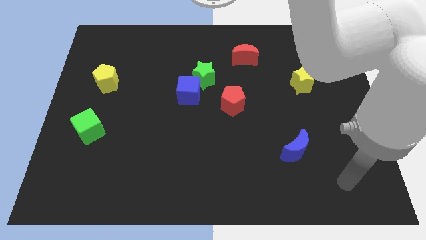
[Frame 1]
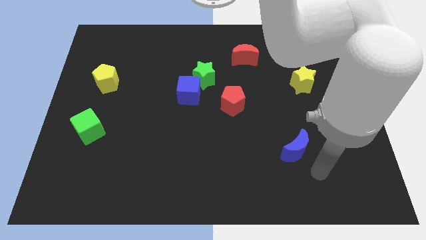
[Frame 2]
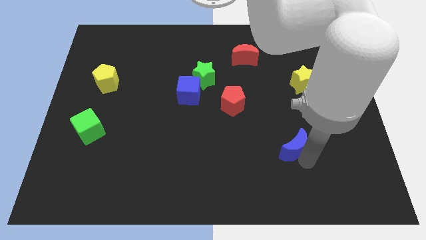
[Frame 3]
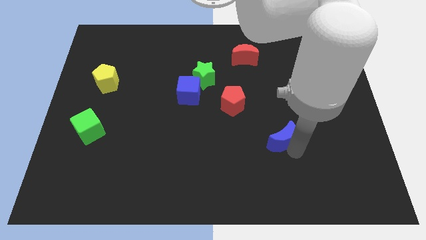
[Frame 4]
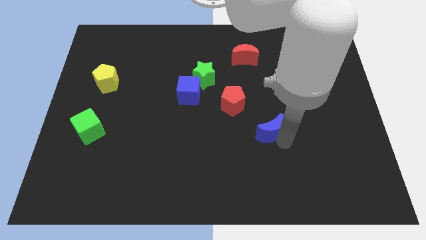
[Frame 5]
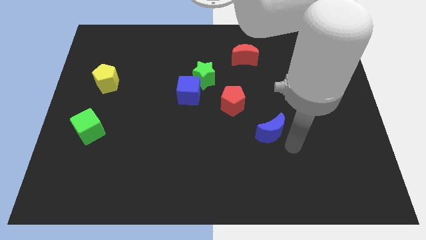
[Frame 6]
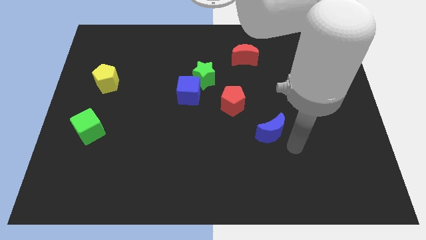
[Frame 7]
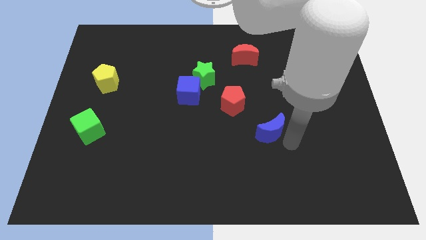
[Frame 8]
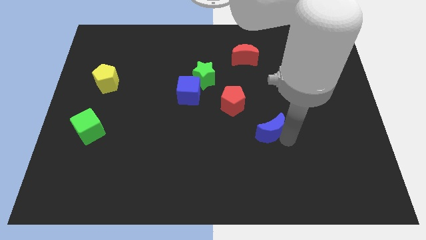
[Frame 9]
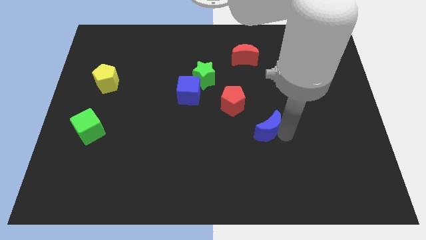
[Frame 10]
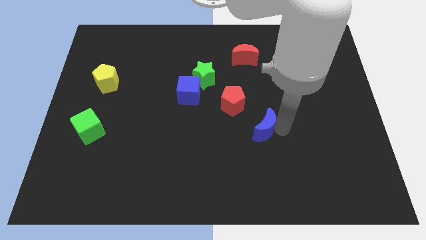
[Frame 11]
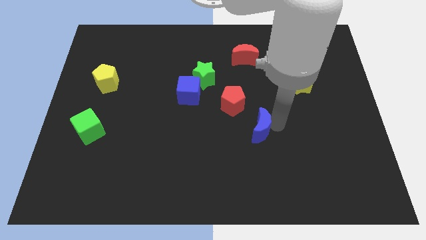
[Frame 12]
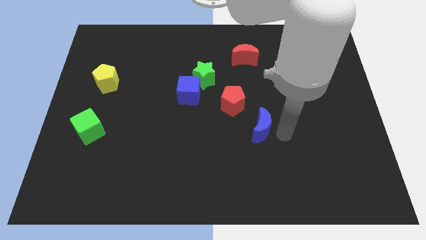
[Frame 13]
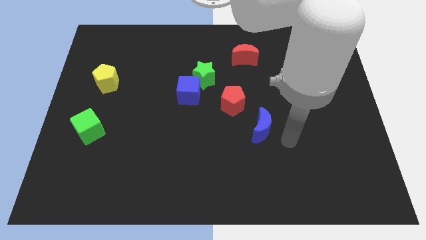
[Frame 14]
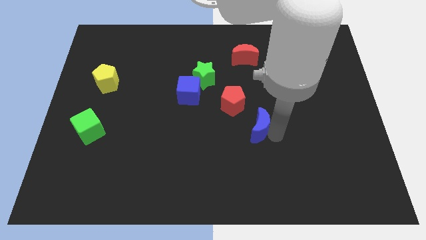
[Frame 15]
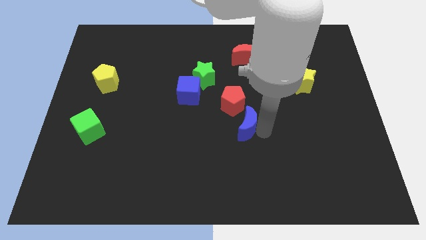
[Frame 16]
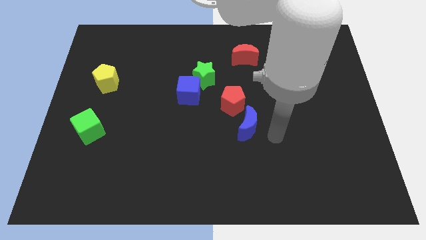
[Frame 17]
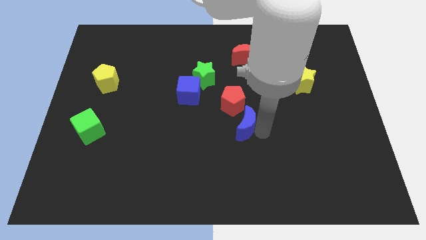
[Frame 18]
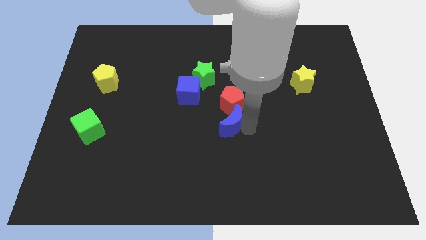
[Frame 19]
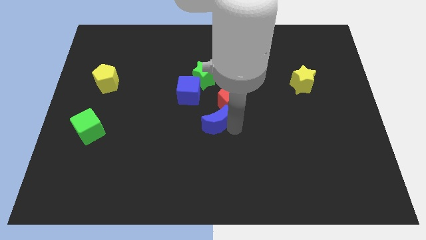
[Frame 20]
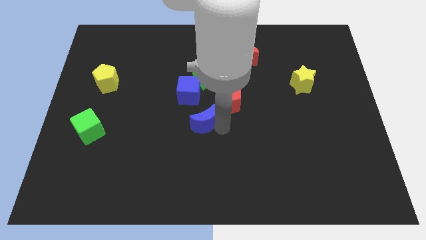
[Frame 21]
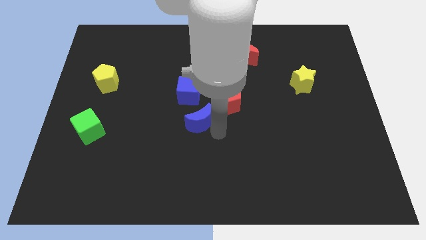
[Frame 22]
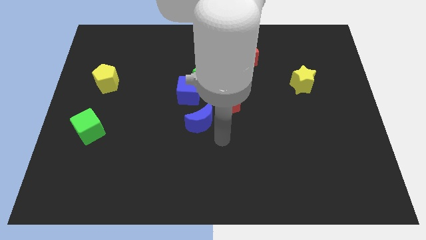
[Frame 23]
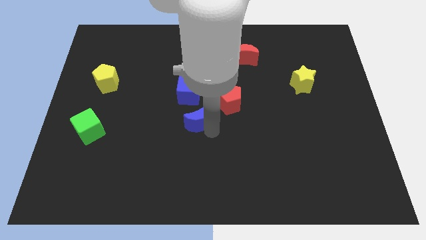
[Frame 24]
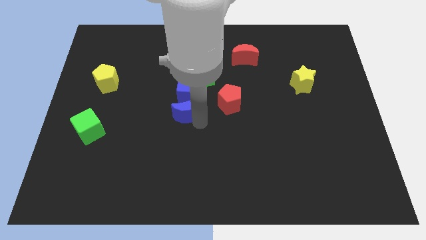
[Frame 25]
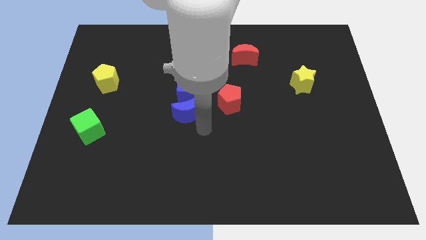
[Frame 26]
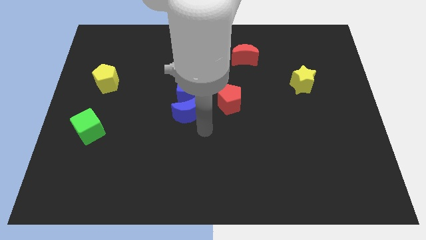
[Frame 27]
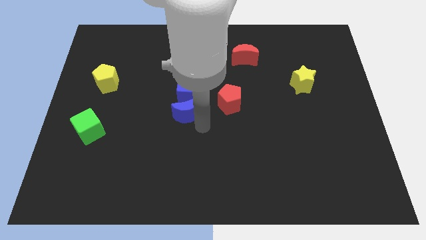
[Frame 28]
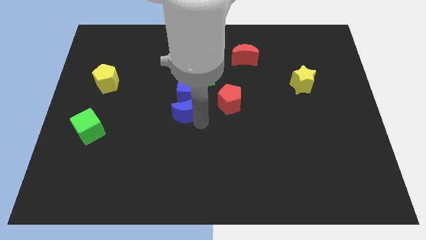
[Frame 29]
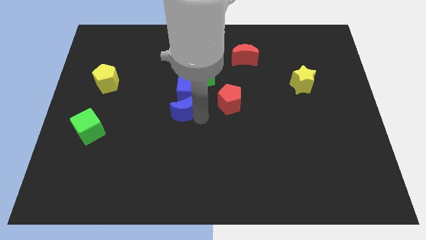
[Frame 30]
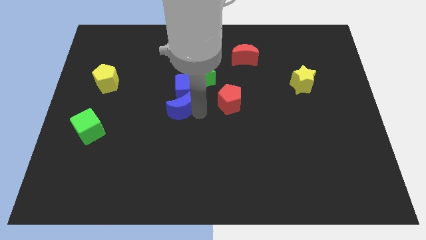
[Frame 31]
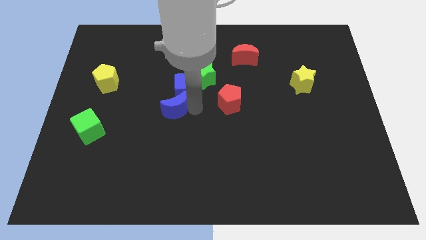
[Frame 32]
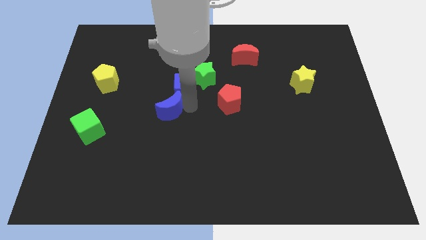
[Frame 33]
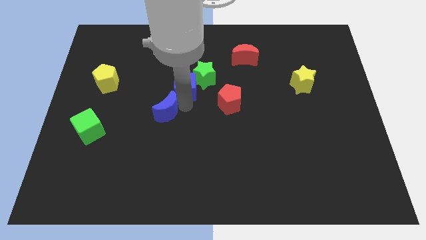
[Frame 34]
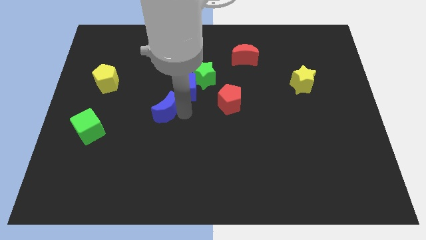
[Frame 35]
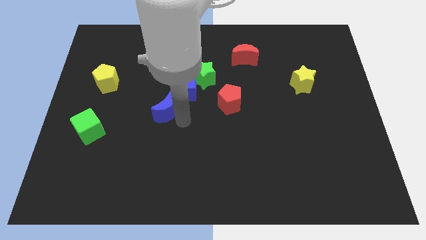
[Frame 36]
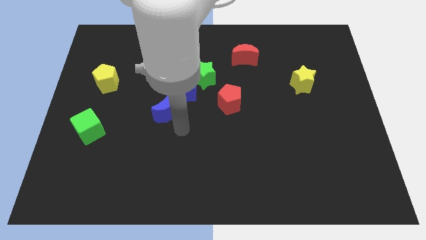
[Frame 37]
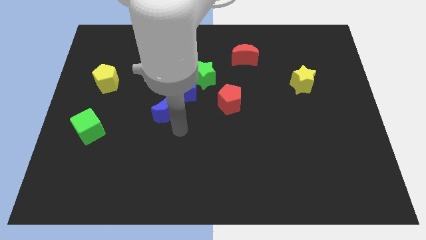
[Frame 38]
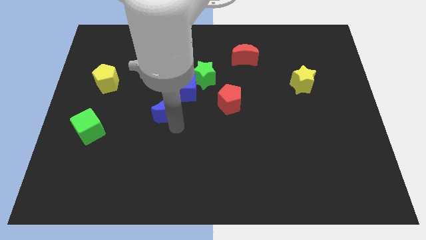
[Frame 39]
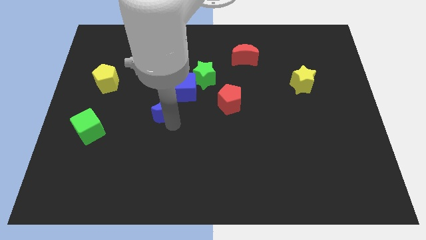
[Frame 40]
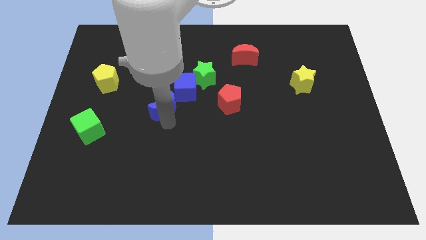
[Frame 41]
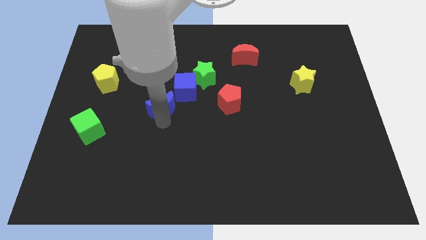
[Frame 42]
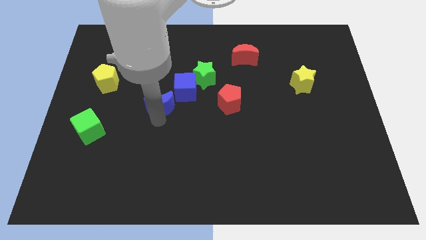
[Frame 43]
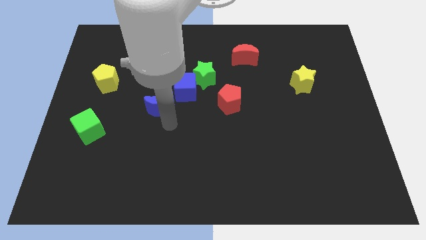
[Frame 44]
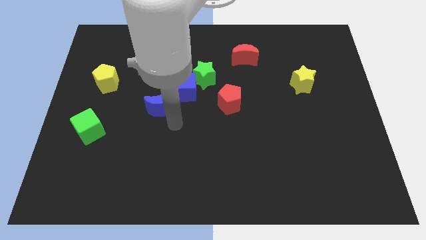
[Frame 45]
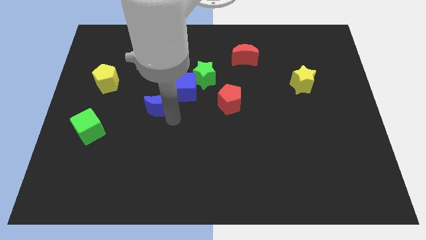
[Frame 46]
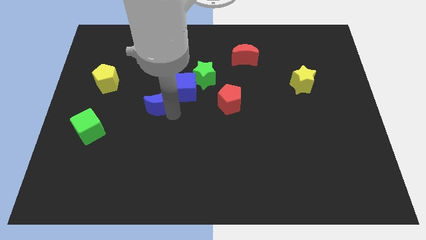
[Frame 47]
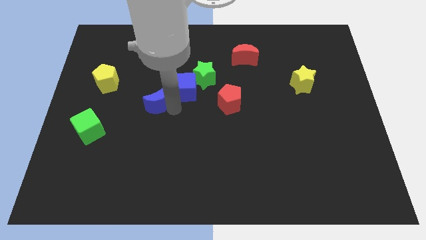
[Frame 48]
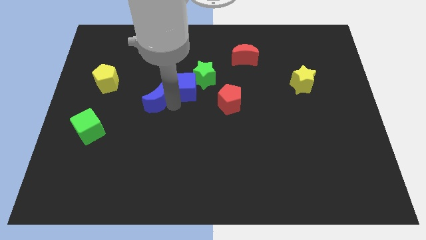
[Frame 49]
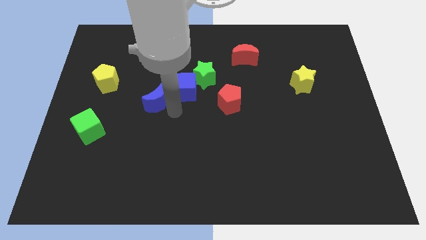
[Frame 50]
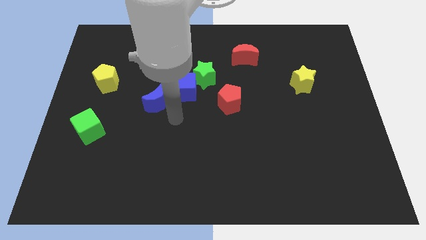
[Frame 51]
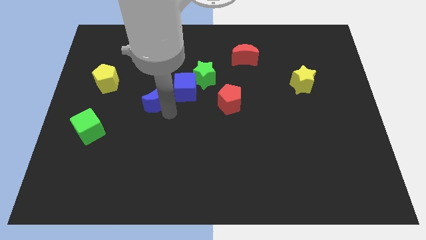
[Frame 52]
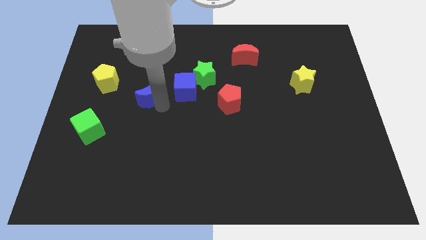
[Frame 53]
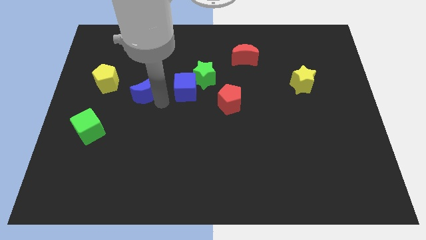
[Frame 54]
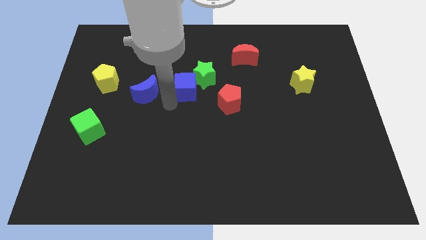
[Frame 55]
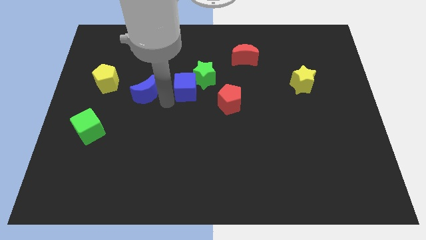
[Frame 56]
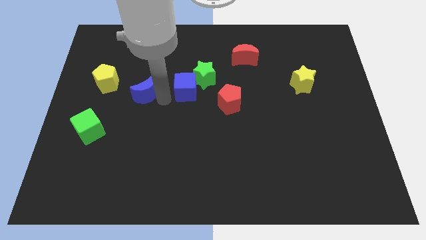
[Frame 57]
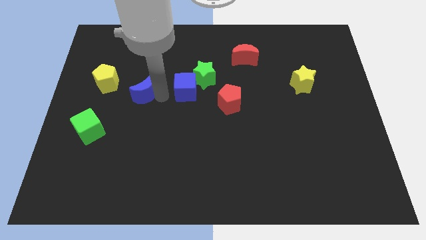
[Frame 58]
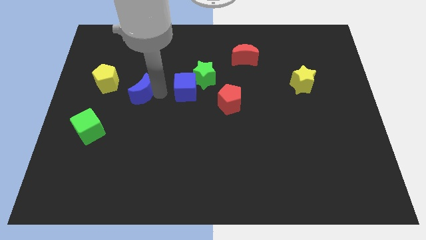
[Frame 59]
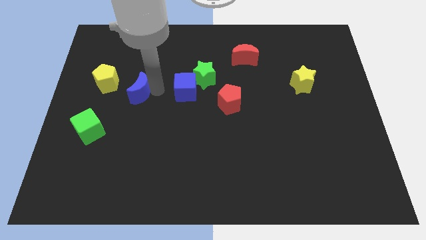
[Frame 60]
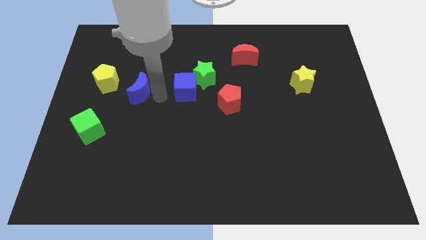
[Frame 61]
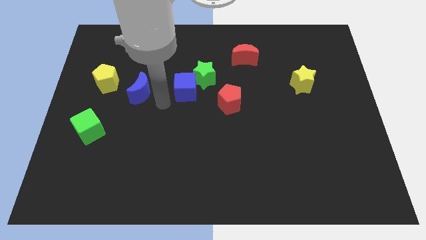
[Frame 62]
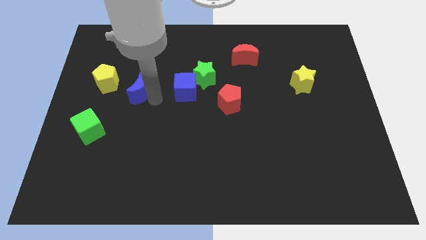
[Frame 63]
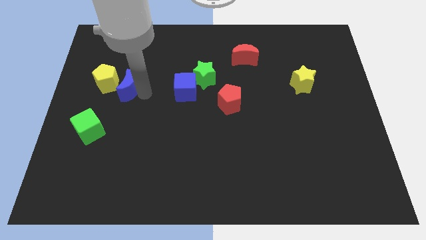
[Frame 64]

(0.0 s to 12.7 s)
slide the blue moon close to the yellow pentagon

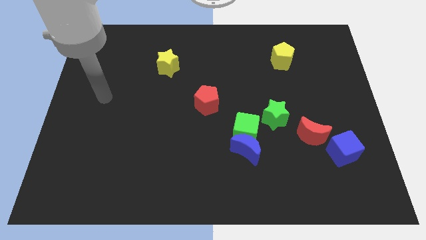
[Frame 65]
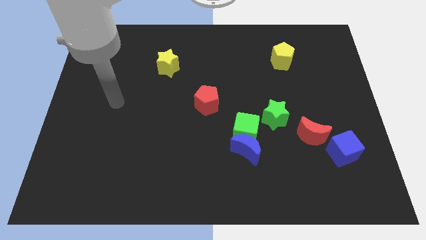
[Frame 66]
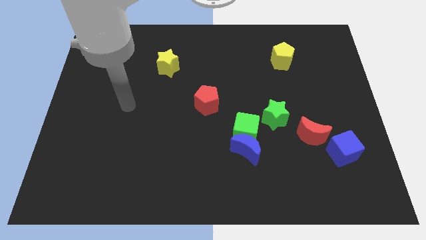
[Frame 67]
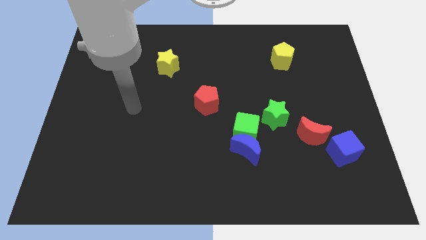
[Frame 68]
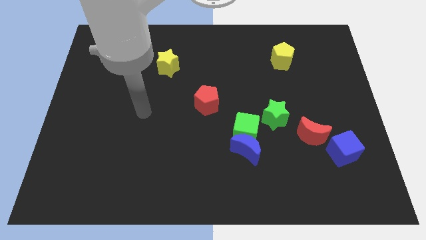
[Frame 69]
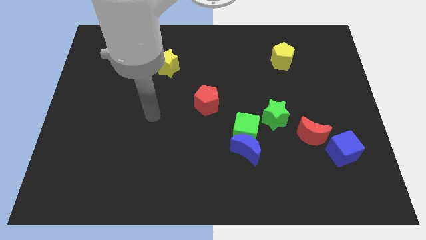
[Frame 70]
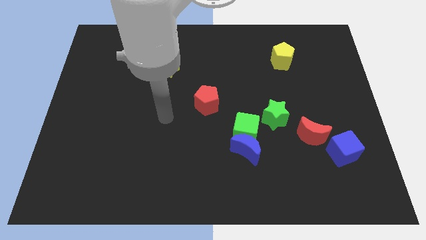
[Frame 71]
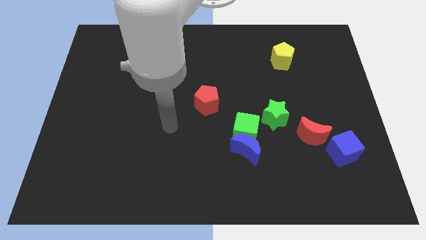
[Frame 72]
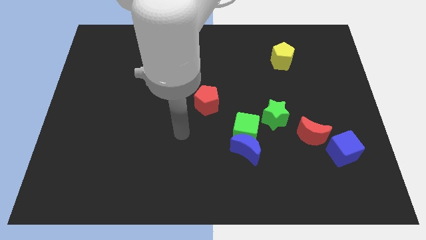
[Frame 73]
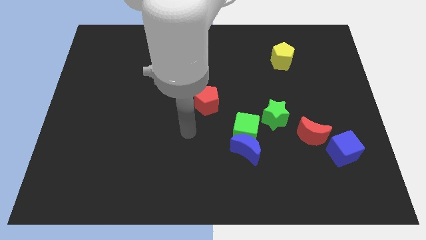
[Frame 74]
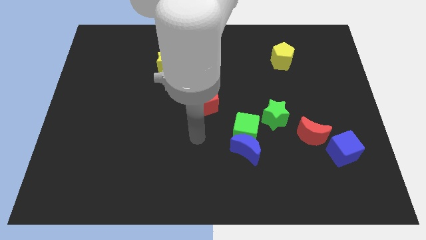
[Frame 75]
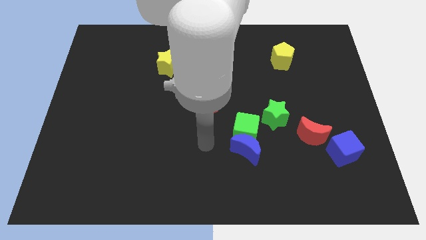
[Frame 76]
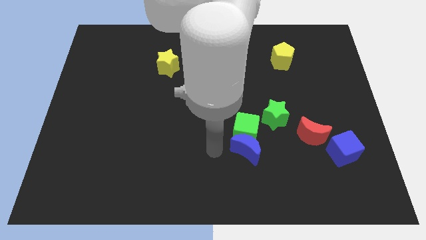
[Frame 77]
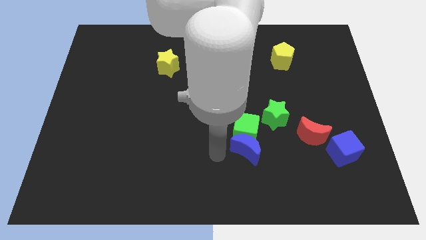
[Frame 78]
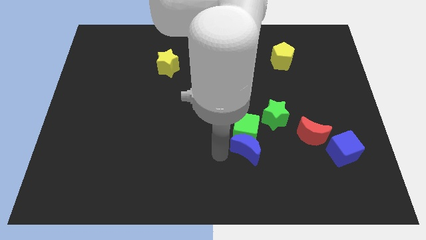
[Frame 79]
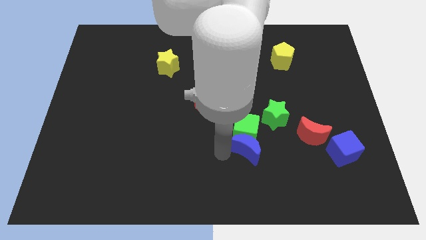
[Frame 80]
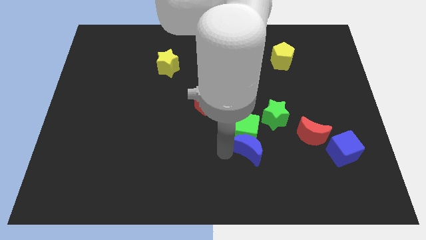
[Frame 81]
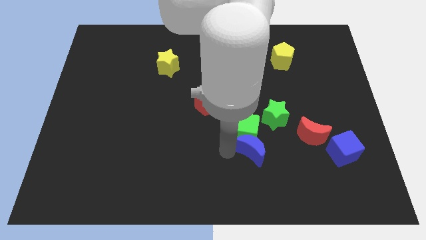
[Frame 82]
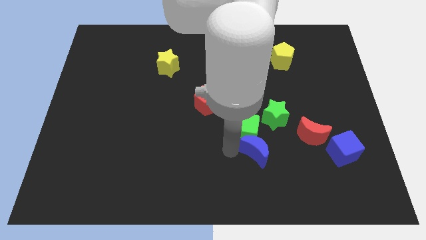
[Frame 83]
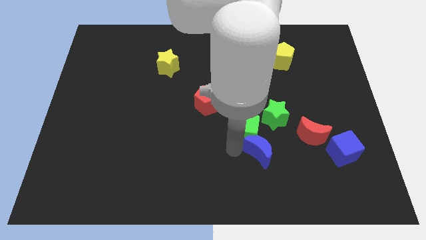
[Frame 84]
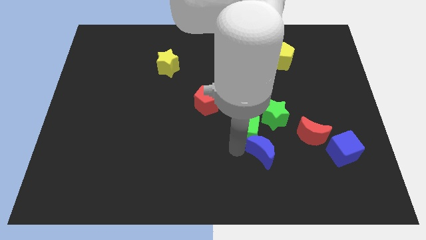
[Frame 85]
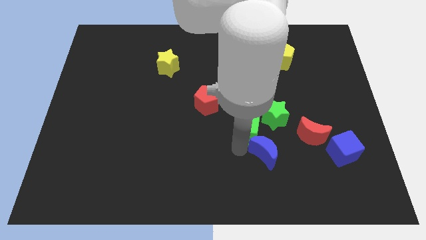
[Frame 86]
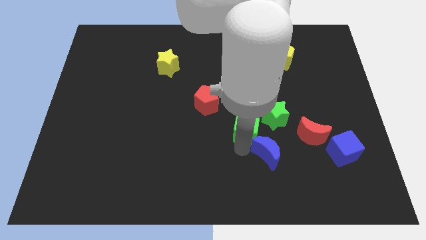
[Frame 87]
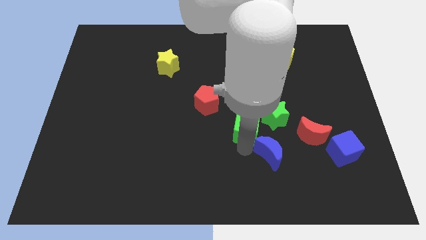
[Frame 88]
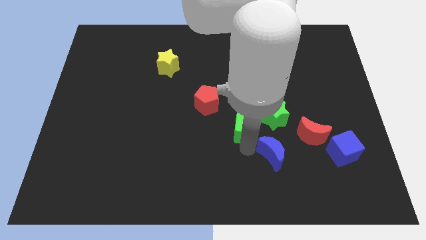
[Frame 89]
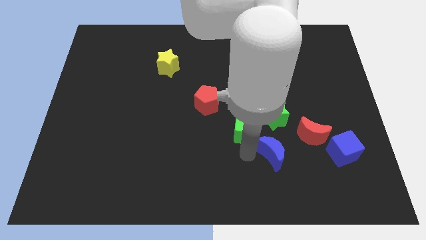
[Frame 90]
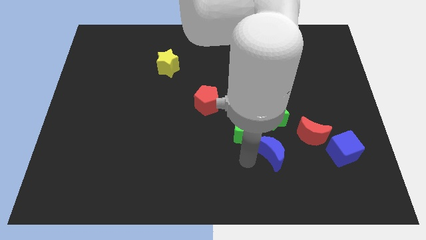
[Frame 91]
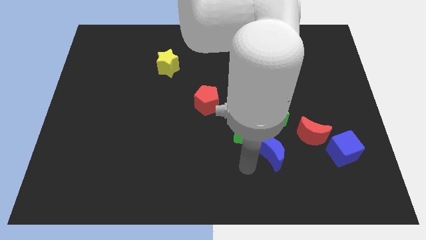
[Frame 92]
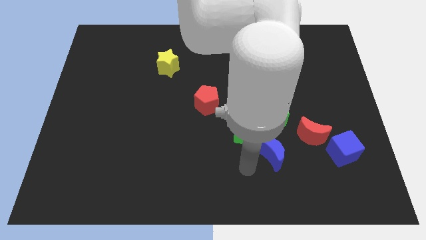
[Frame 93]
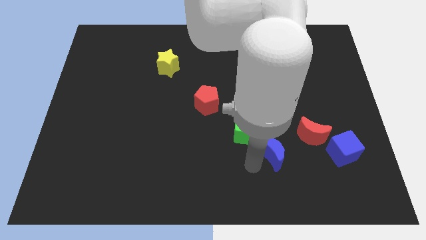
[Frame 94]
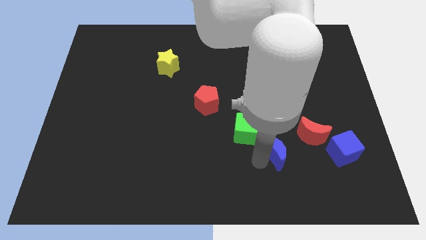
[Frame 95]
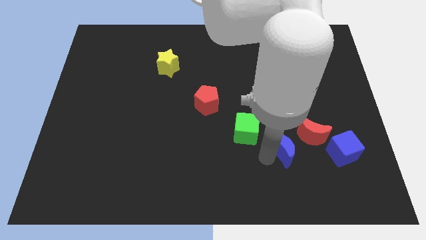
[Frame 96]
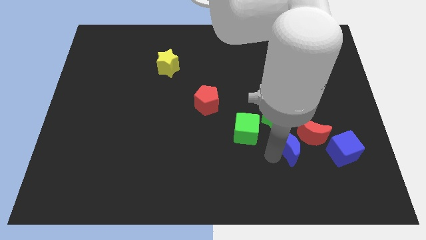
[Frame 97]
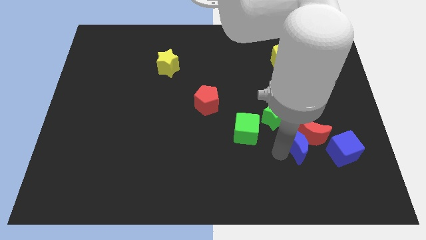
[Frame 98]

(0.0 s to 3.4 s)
slide the blue moon next to the red moon
